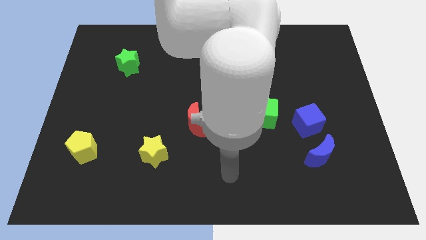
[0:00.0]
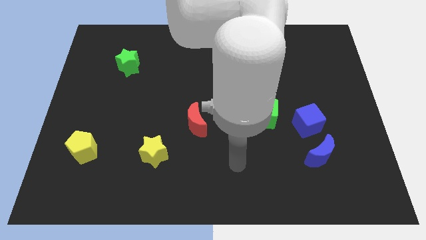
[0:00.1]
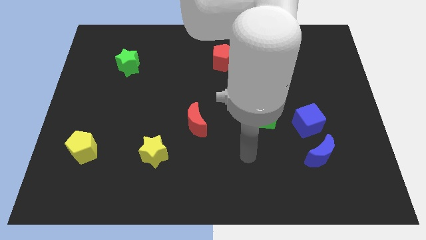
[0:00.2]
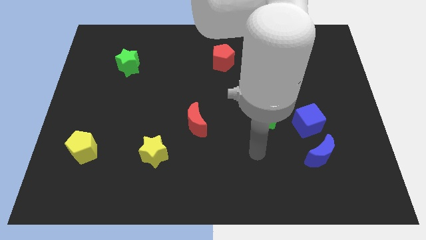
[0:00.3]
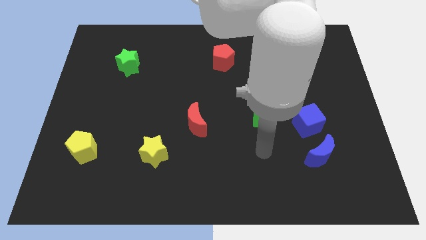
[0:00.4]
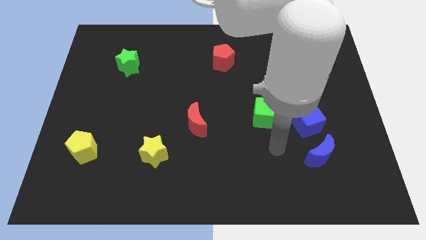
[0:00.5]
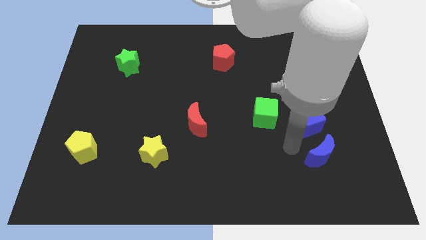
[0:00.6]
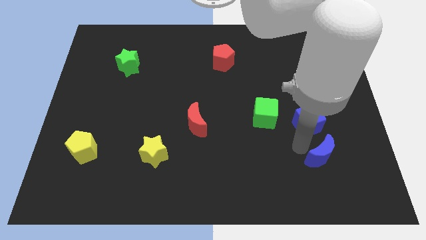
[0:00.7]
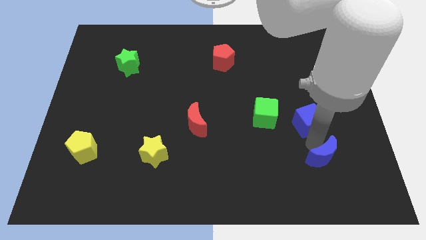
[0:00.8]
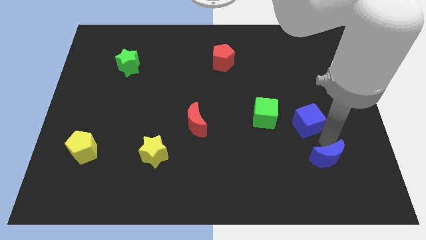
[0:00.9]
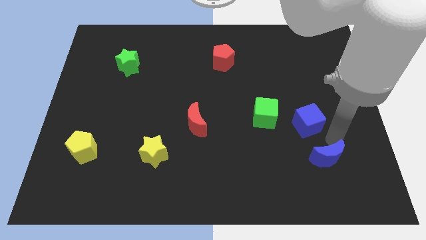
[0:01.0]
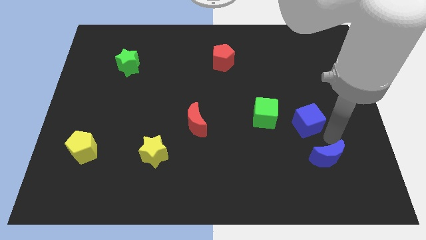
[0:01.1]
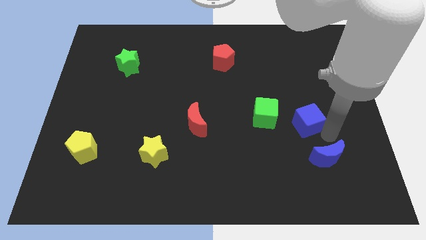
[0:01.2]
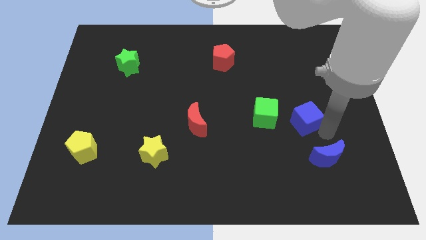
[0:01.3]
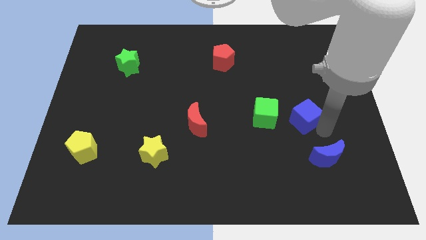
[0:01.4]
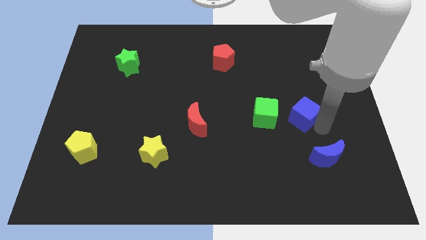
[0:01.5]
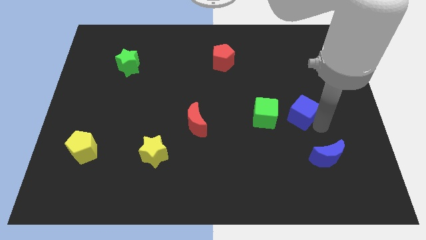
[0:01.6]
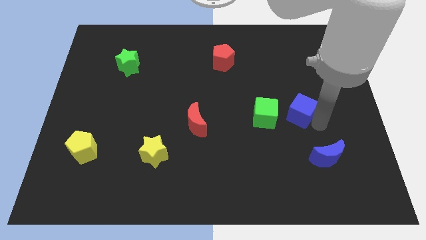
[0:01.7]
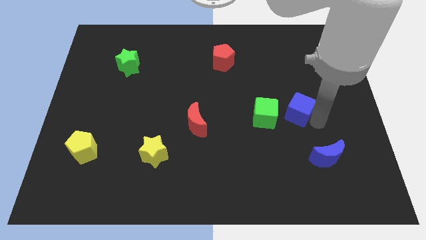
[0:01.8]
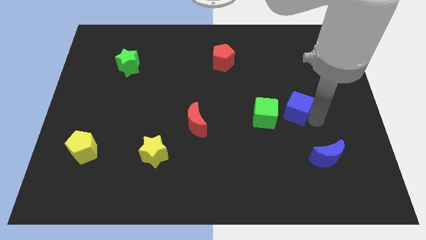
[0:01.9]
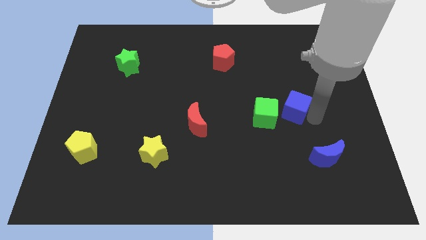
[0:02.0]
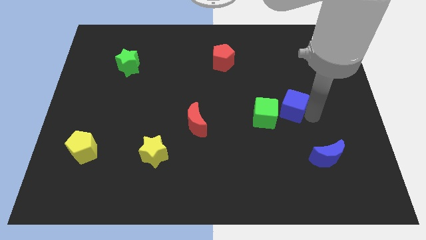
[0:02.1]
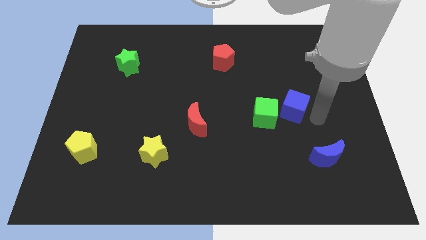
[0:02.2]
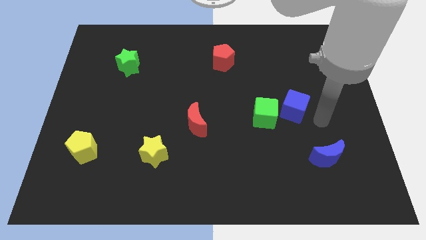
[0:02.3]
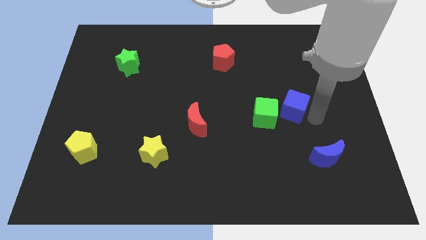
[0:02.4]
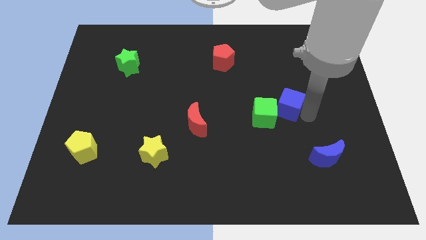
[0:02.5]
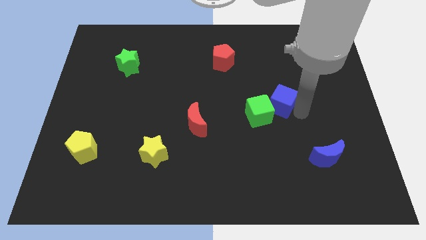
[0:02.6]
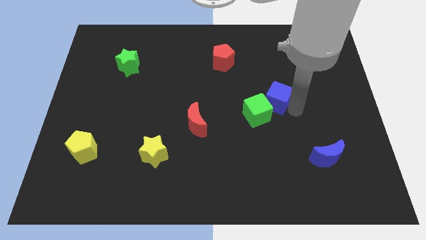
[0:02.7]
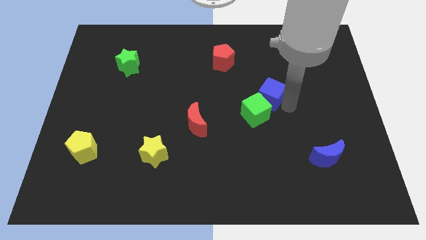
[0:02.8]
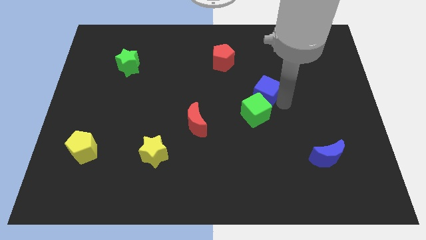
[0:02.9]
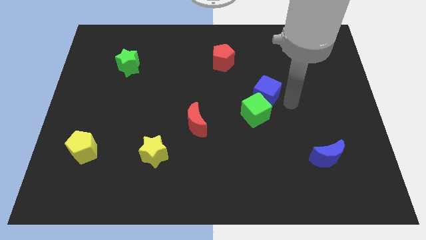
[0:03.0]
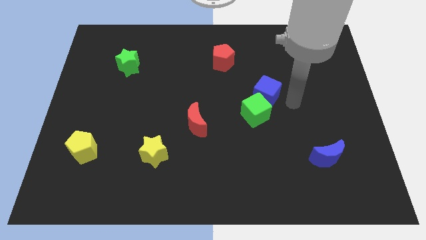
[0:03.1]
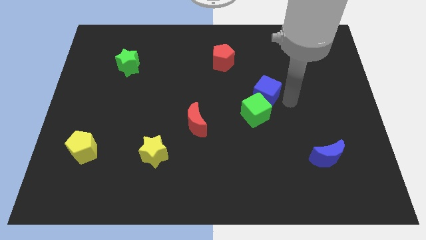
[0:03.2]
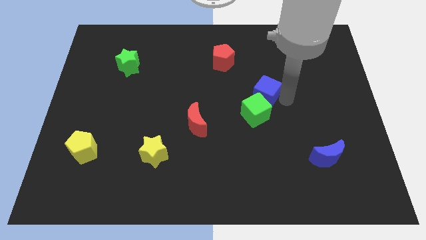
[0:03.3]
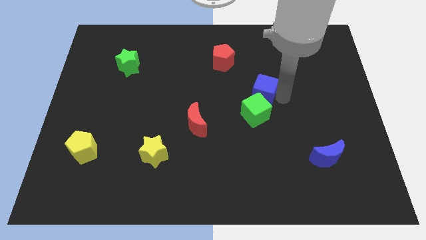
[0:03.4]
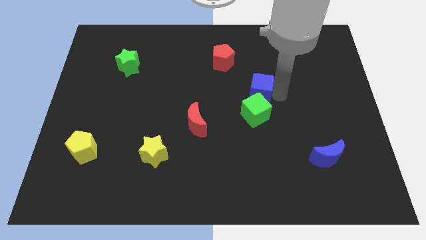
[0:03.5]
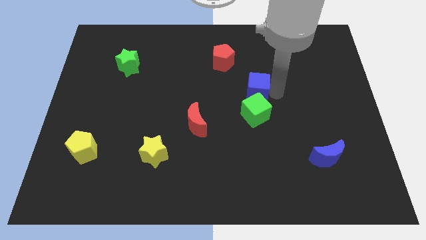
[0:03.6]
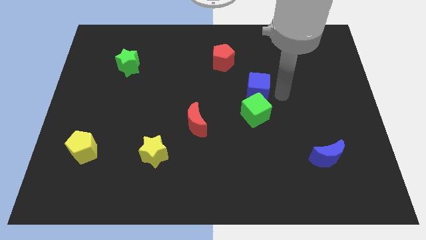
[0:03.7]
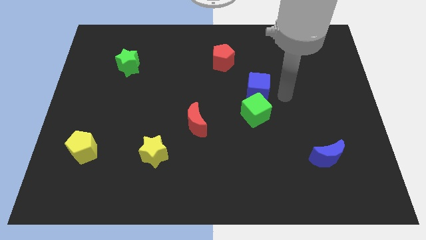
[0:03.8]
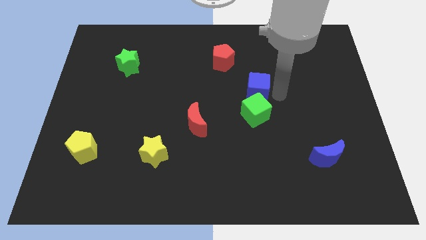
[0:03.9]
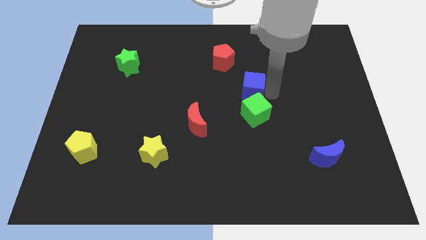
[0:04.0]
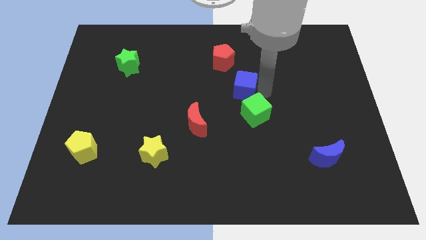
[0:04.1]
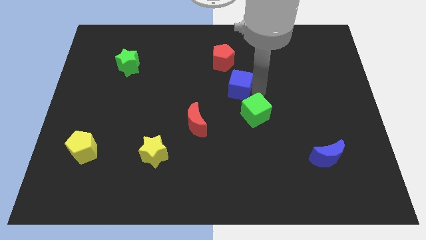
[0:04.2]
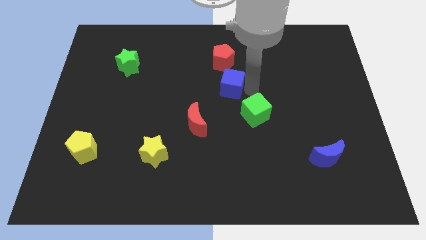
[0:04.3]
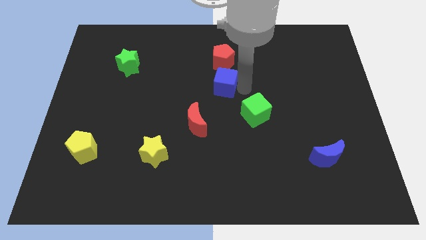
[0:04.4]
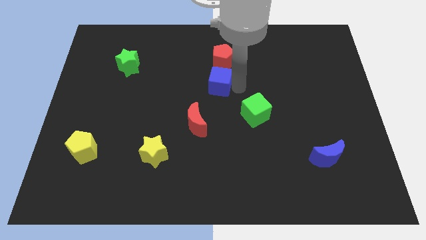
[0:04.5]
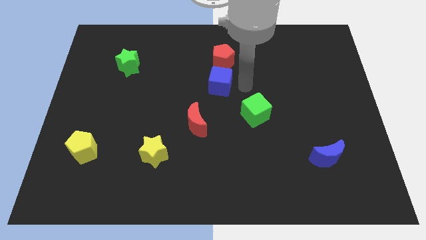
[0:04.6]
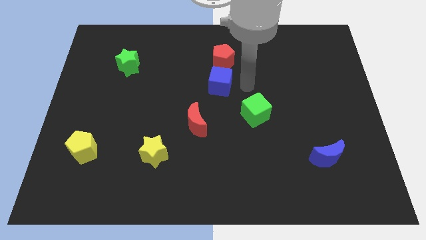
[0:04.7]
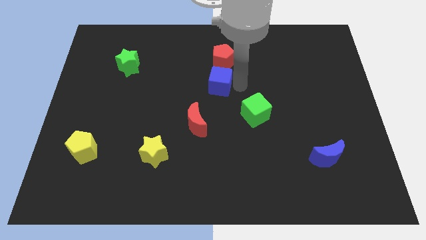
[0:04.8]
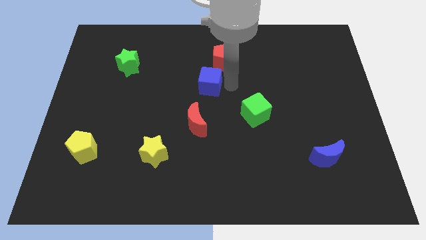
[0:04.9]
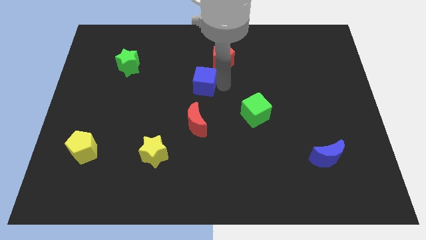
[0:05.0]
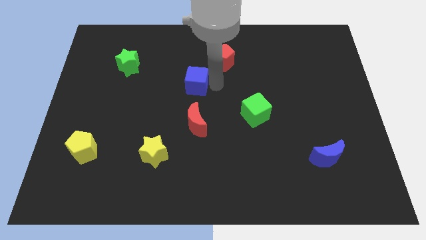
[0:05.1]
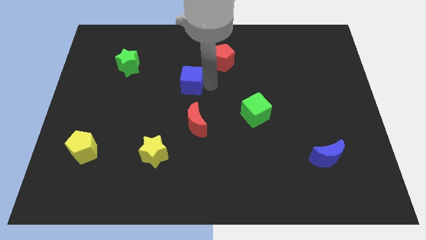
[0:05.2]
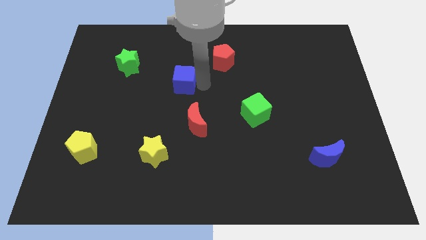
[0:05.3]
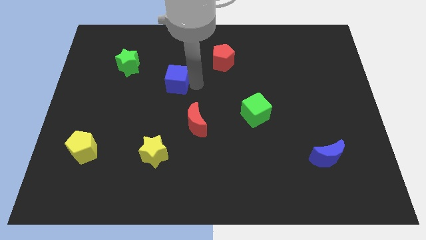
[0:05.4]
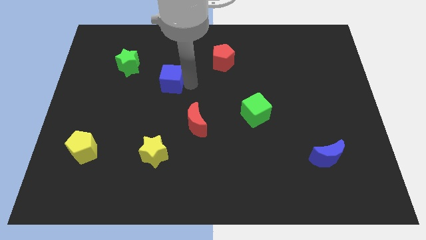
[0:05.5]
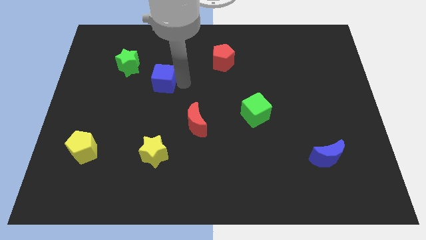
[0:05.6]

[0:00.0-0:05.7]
move the blue cube to the bottom right of the green star

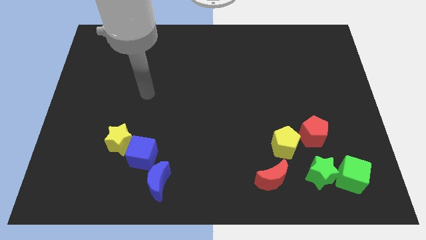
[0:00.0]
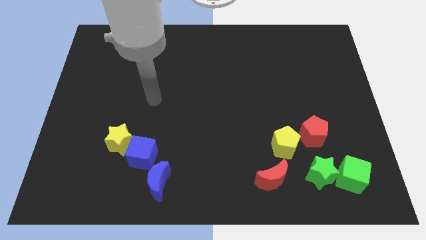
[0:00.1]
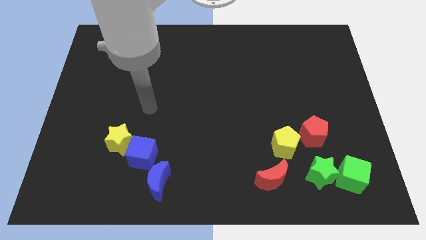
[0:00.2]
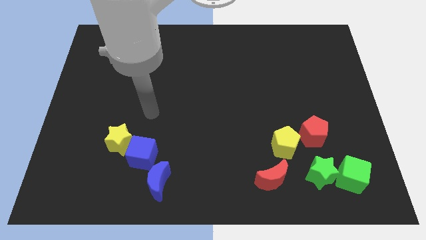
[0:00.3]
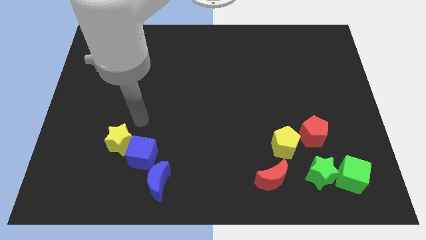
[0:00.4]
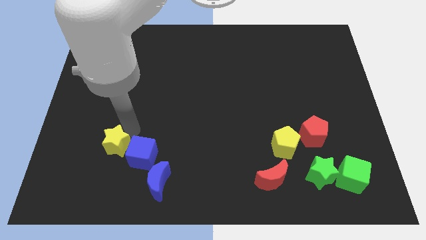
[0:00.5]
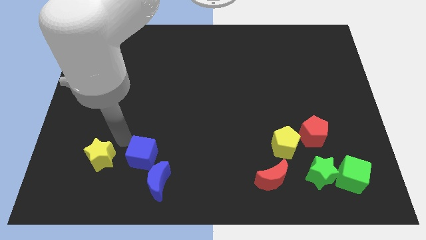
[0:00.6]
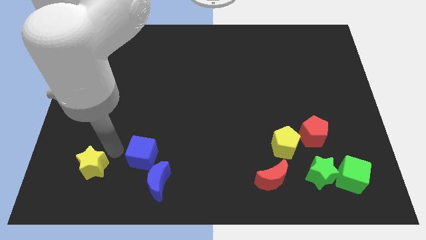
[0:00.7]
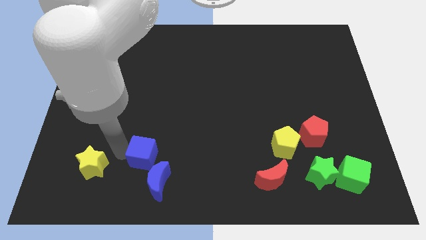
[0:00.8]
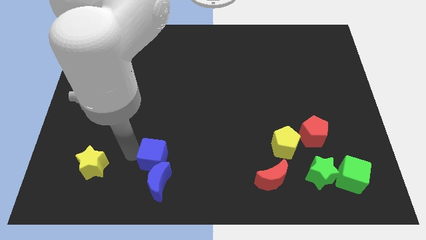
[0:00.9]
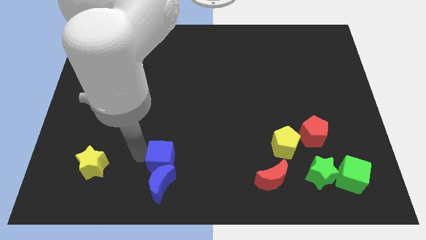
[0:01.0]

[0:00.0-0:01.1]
move the blue cube diagonally up and to the right of the blue moon

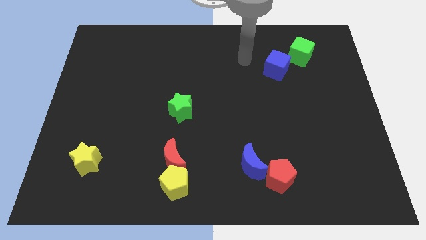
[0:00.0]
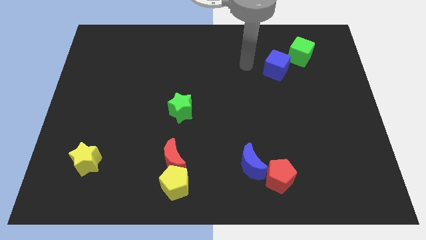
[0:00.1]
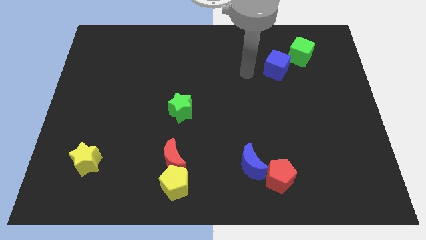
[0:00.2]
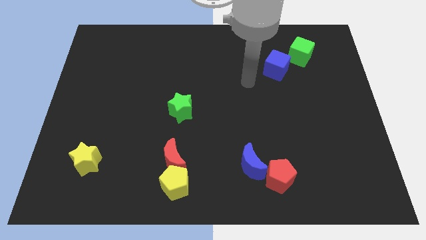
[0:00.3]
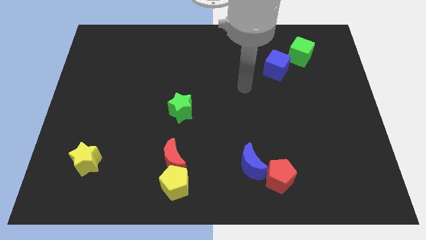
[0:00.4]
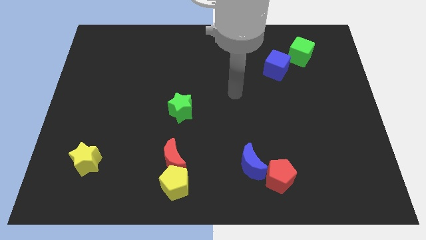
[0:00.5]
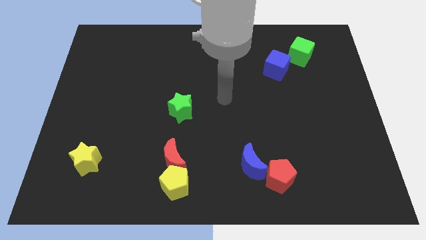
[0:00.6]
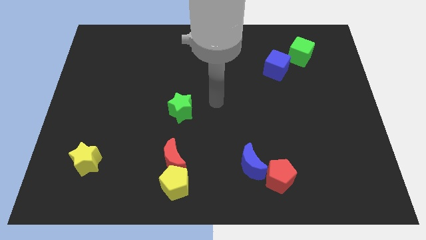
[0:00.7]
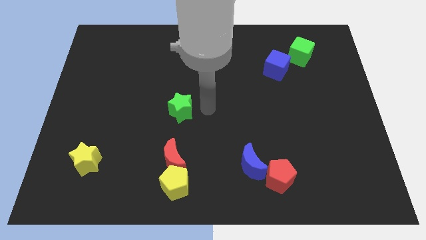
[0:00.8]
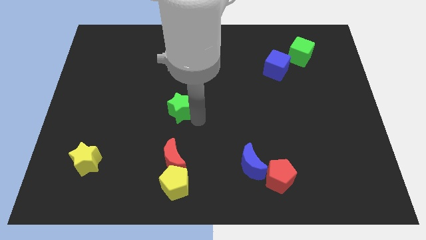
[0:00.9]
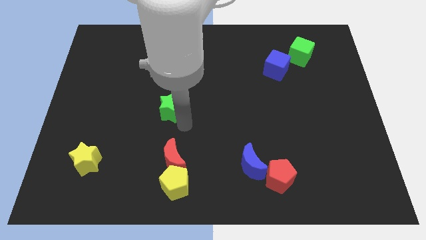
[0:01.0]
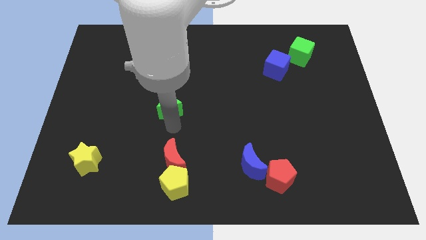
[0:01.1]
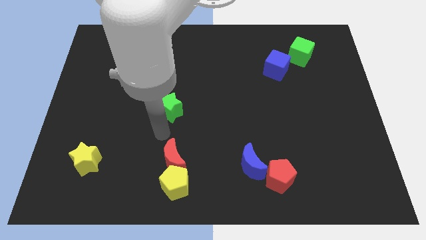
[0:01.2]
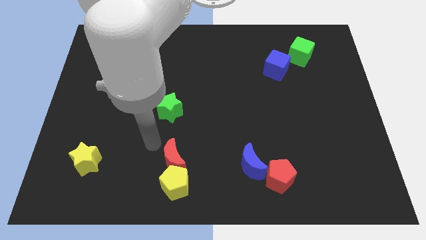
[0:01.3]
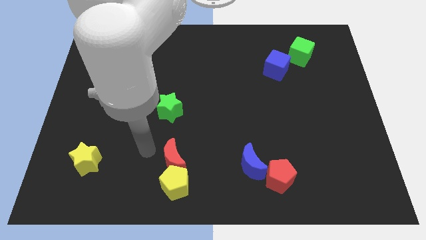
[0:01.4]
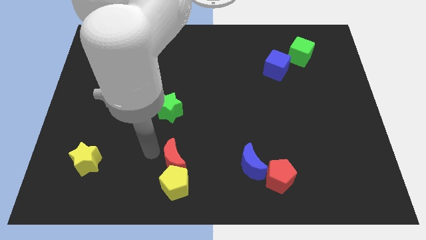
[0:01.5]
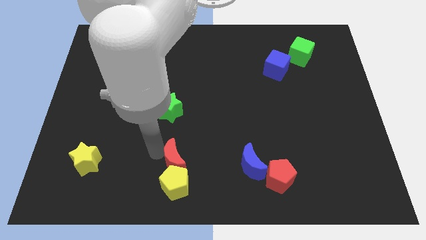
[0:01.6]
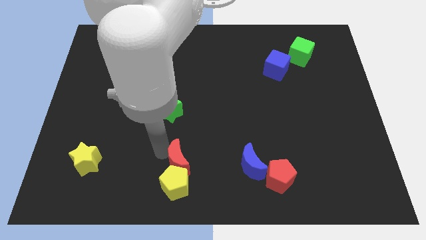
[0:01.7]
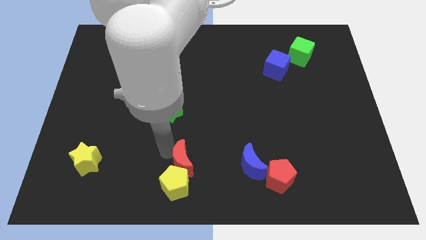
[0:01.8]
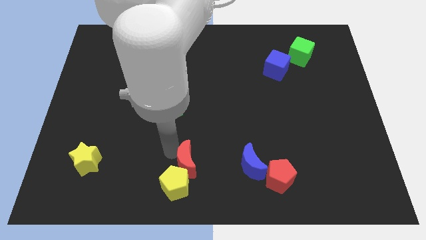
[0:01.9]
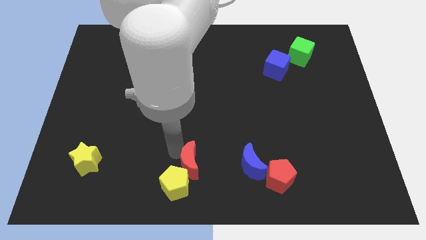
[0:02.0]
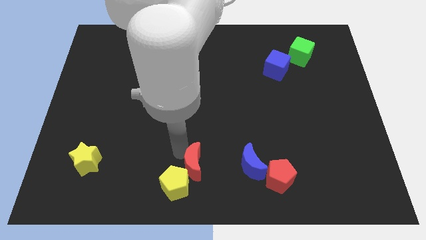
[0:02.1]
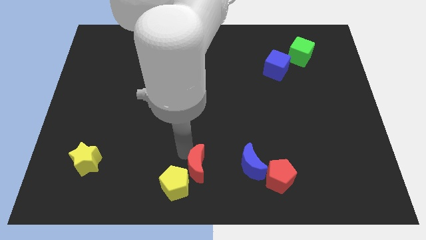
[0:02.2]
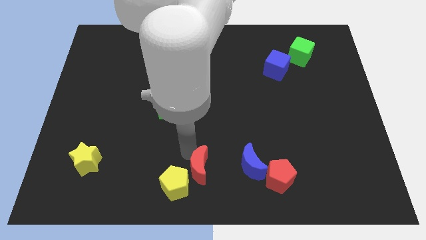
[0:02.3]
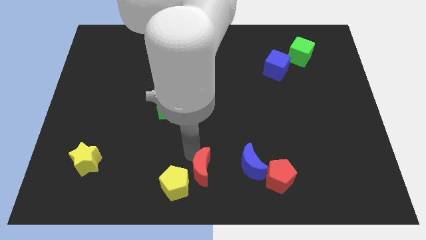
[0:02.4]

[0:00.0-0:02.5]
put the red moon to the left of the red pentagon
